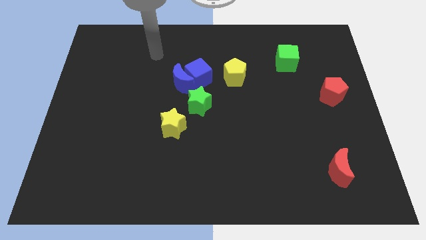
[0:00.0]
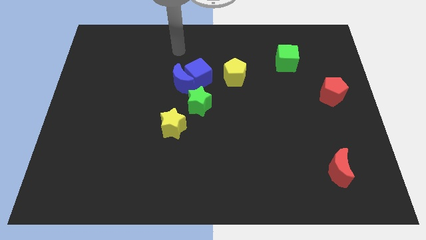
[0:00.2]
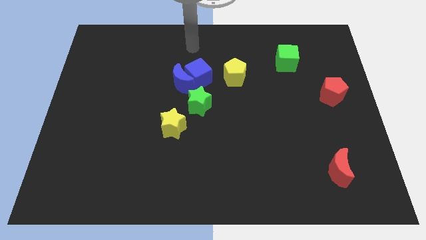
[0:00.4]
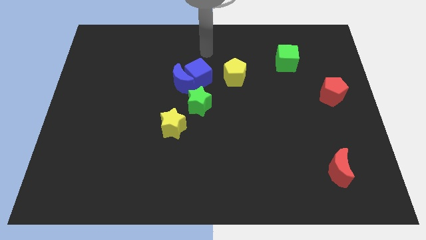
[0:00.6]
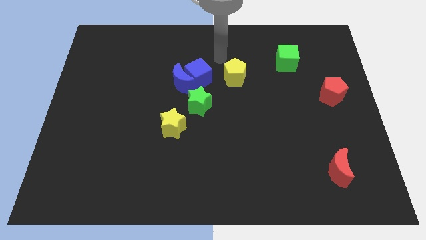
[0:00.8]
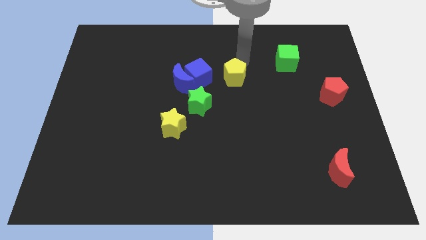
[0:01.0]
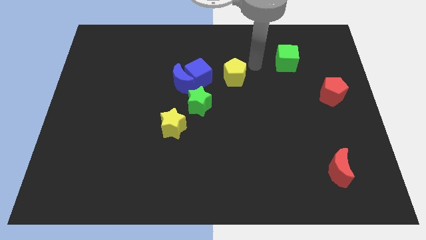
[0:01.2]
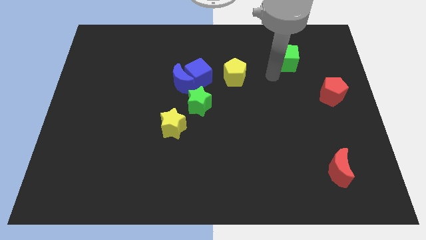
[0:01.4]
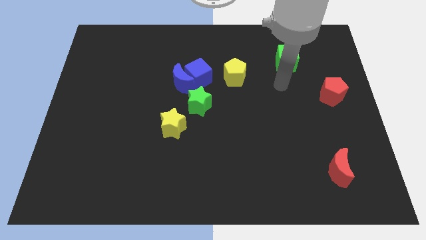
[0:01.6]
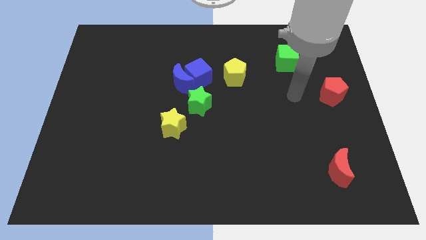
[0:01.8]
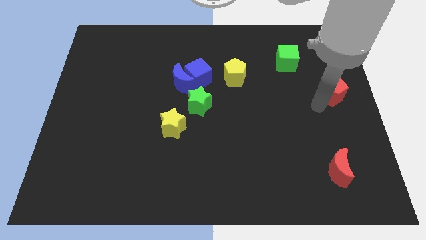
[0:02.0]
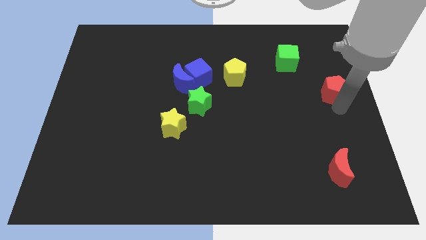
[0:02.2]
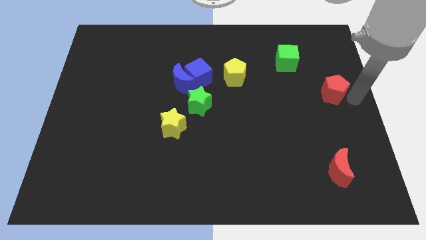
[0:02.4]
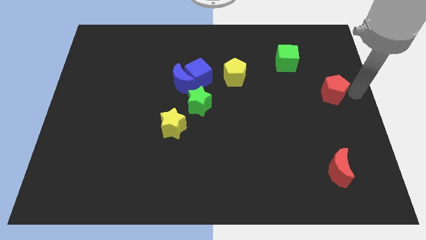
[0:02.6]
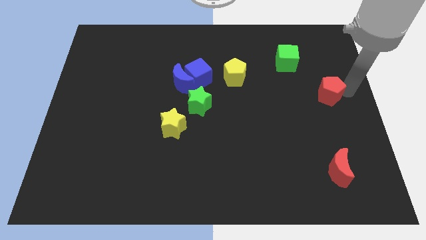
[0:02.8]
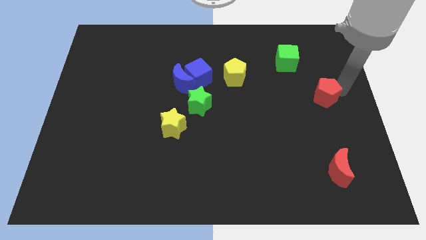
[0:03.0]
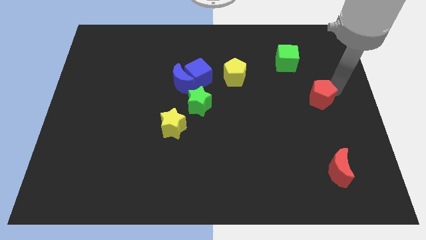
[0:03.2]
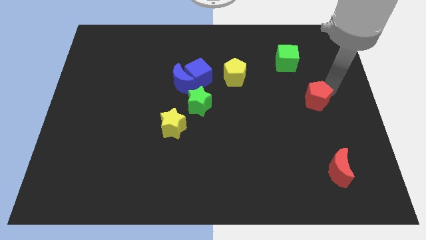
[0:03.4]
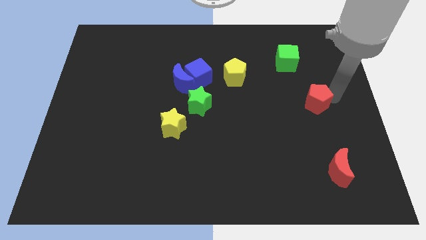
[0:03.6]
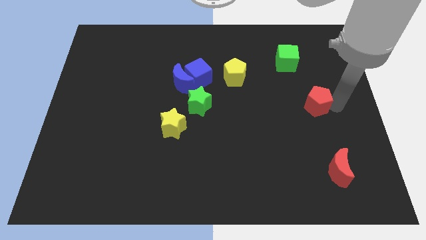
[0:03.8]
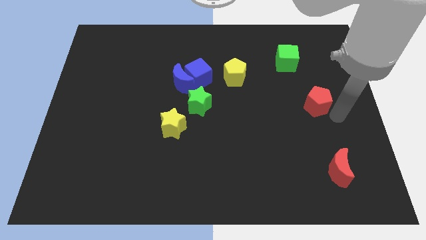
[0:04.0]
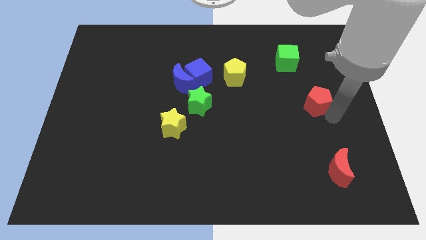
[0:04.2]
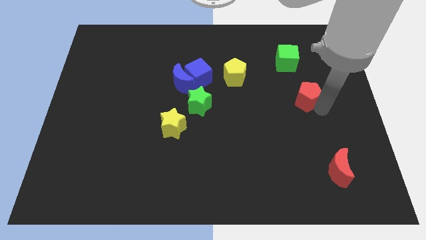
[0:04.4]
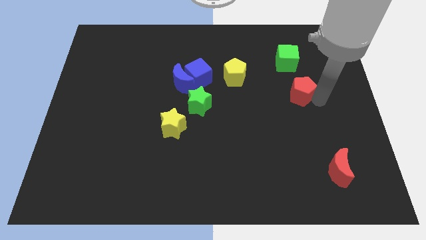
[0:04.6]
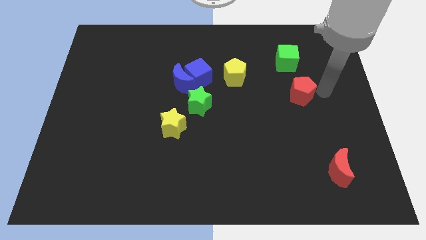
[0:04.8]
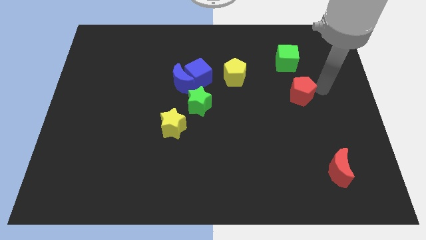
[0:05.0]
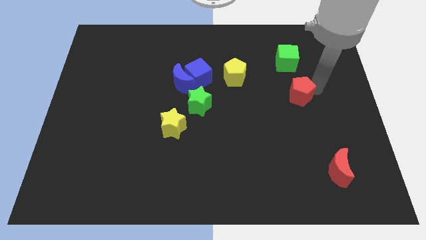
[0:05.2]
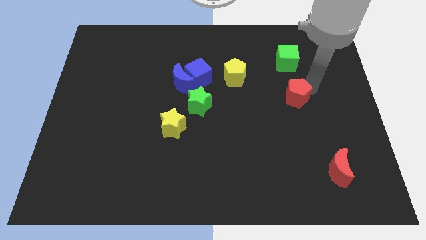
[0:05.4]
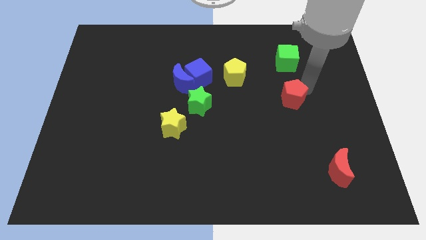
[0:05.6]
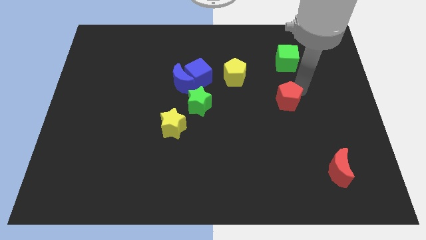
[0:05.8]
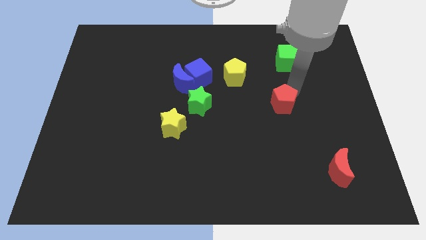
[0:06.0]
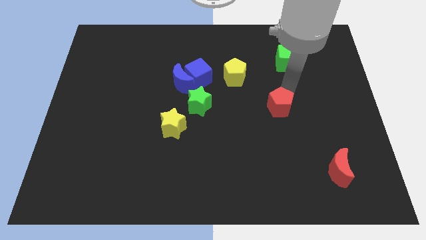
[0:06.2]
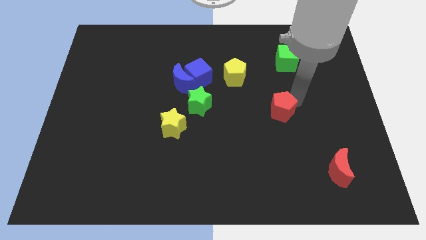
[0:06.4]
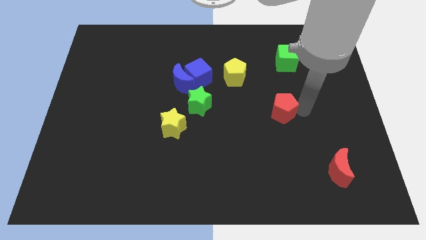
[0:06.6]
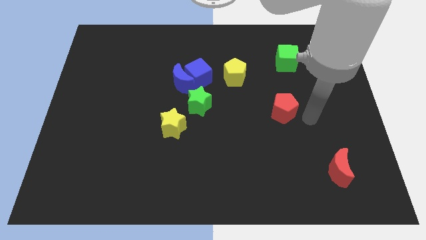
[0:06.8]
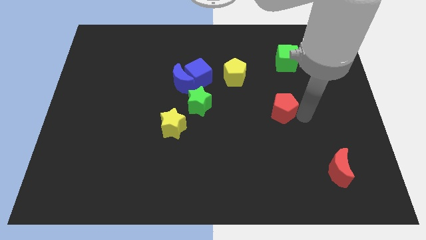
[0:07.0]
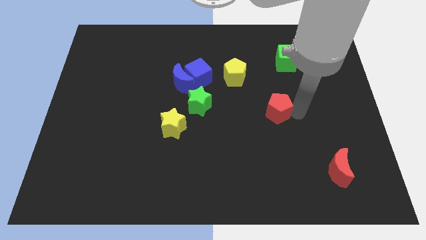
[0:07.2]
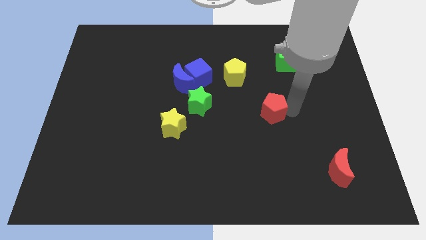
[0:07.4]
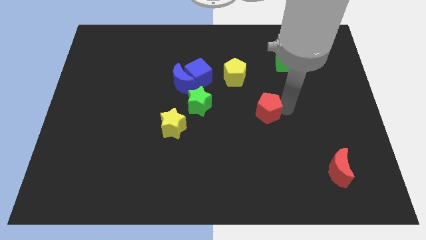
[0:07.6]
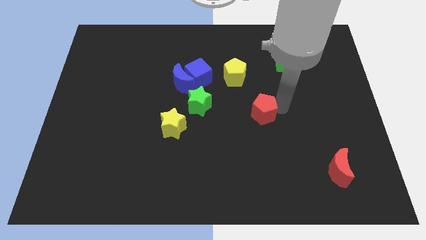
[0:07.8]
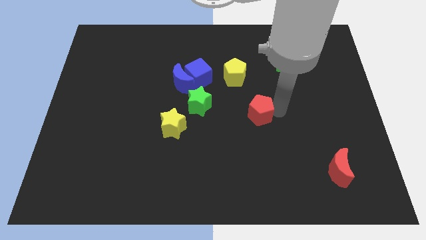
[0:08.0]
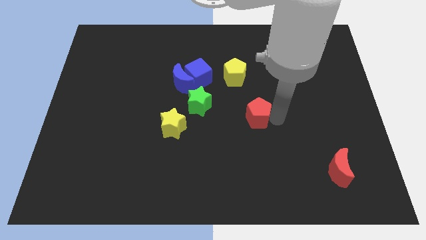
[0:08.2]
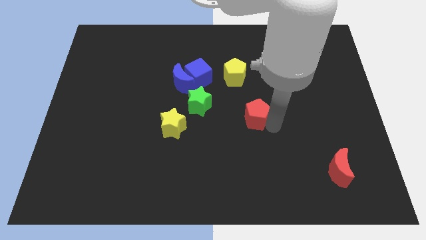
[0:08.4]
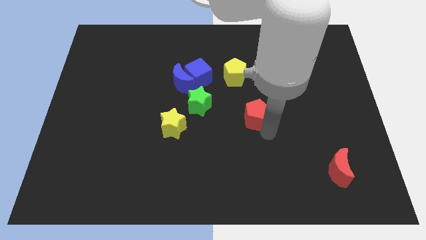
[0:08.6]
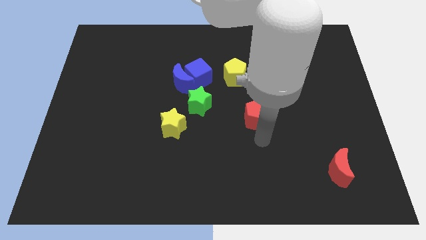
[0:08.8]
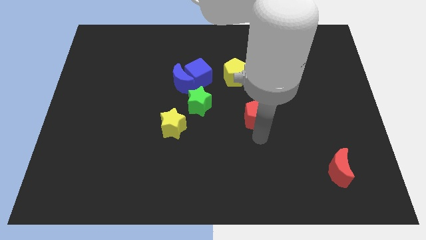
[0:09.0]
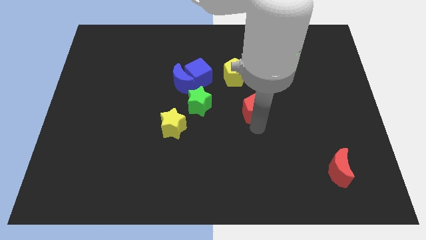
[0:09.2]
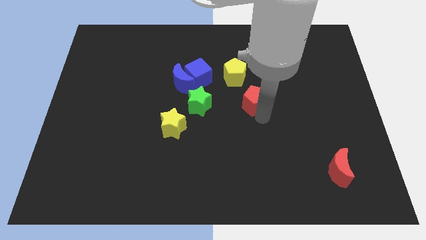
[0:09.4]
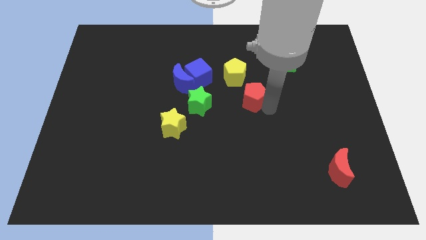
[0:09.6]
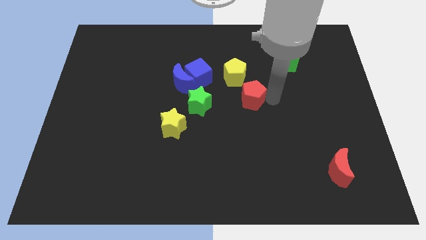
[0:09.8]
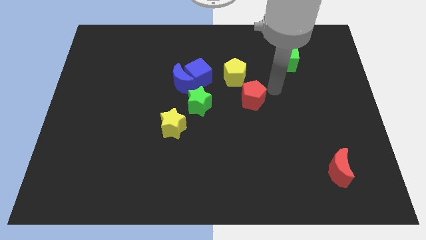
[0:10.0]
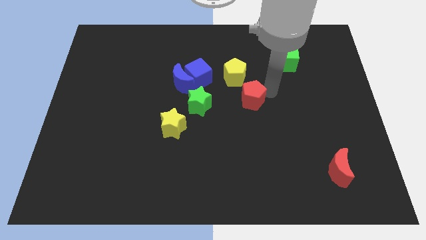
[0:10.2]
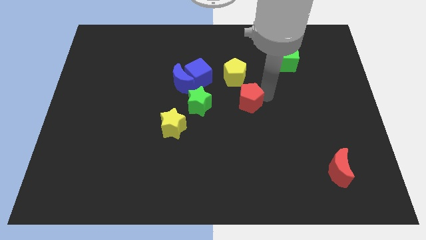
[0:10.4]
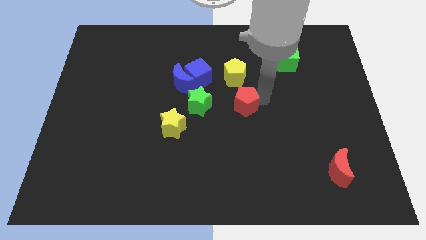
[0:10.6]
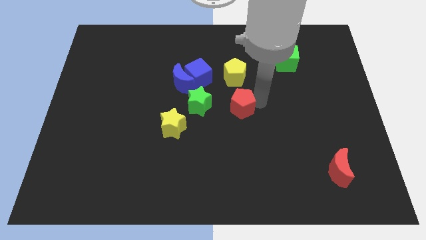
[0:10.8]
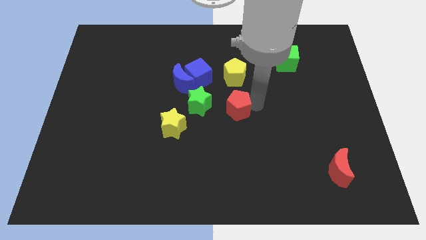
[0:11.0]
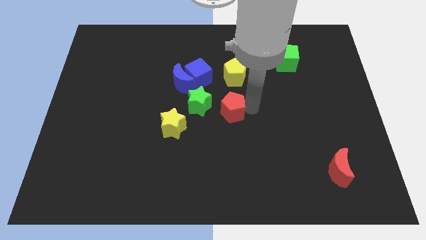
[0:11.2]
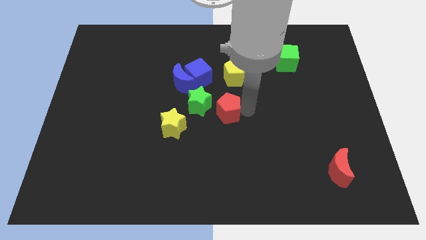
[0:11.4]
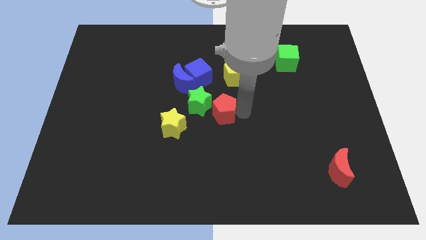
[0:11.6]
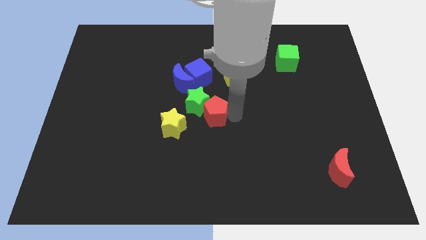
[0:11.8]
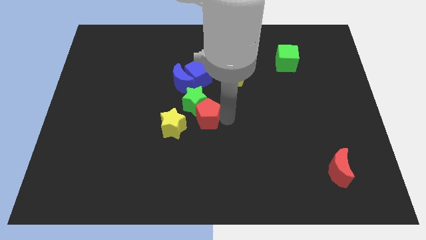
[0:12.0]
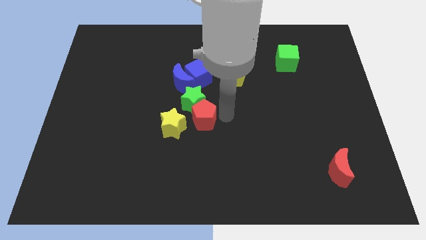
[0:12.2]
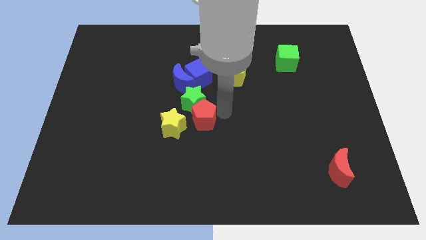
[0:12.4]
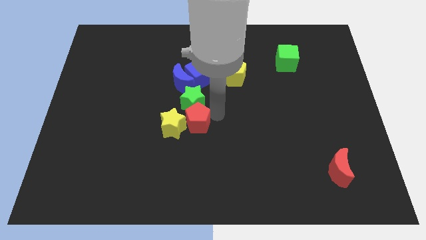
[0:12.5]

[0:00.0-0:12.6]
push the red pentagon close to the yellow star

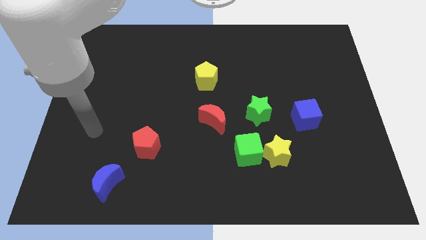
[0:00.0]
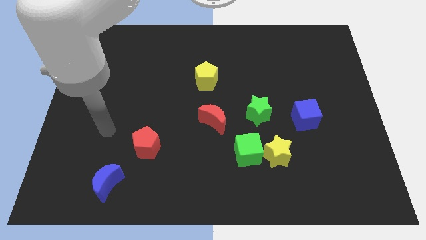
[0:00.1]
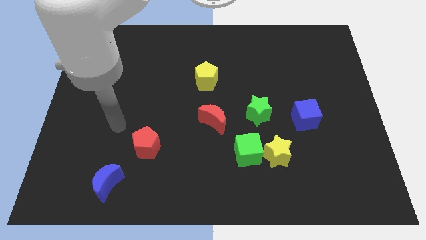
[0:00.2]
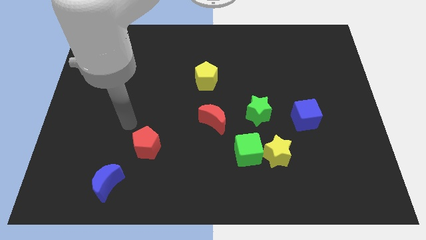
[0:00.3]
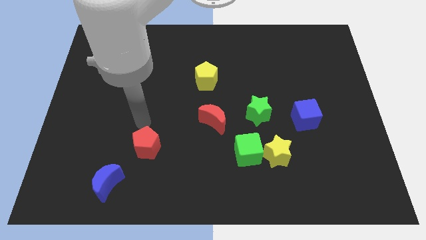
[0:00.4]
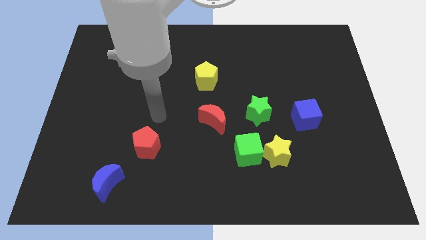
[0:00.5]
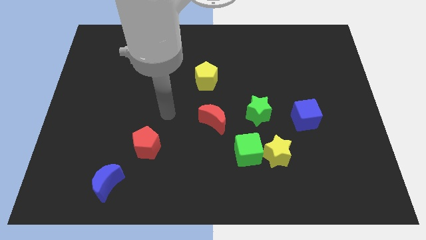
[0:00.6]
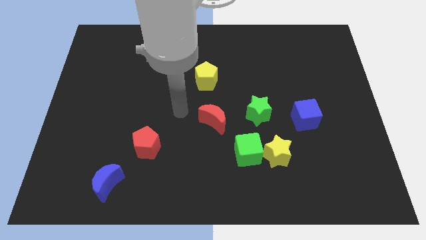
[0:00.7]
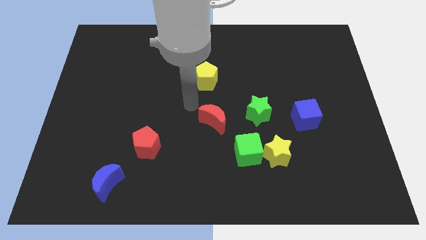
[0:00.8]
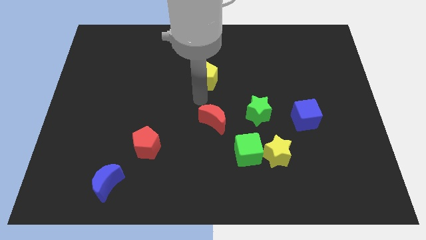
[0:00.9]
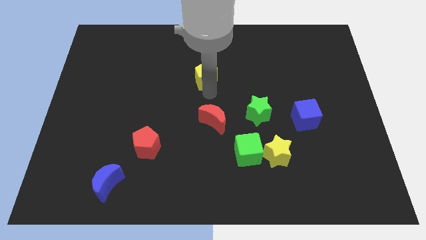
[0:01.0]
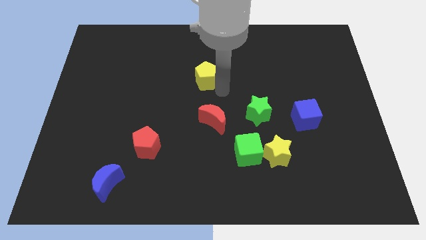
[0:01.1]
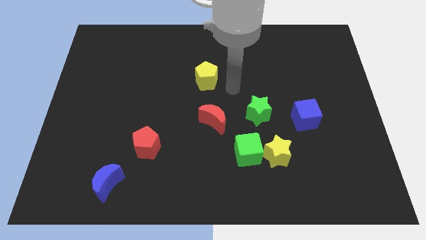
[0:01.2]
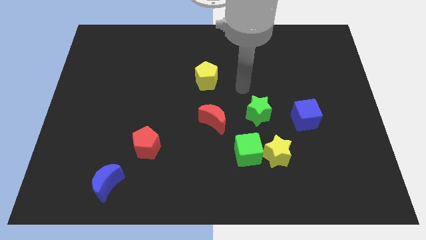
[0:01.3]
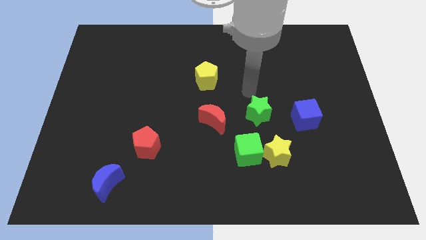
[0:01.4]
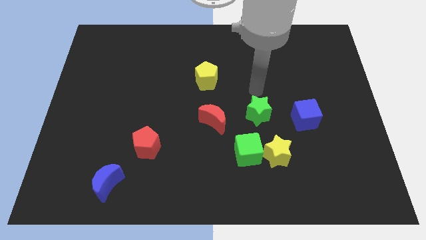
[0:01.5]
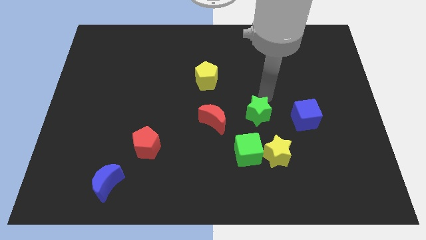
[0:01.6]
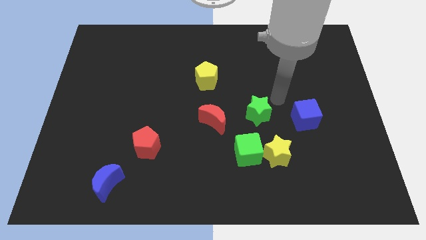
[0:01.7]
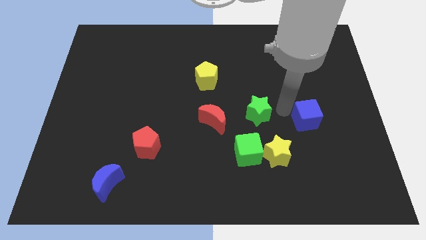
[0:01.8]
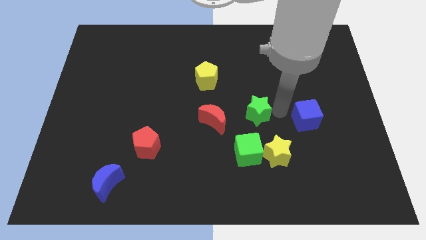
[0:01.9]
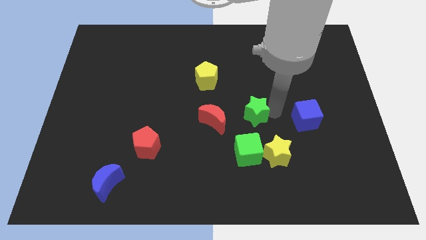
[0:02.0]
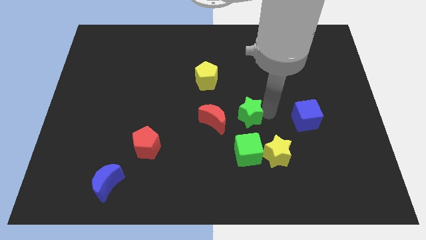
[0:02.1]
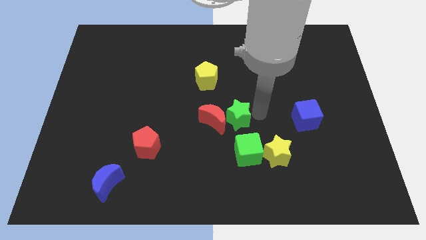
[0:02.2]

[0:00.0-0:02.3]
put the green star to the red moon
